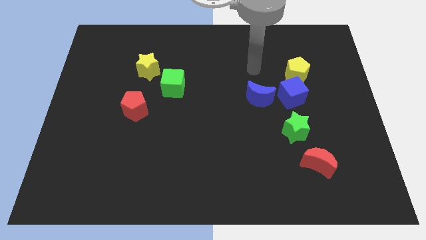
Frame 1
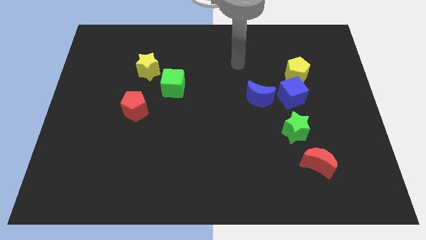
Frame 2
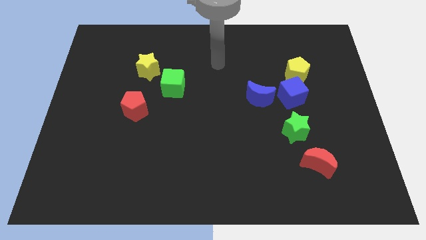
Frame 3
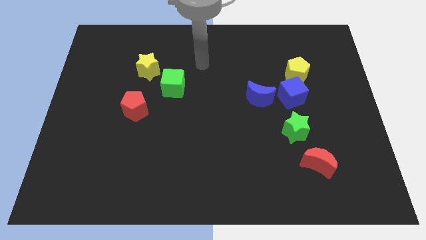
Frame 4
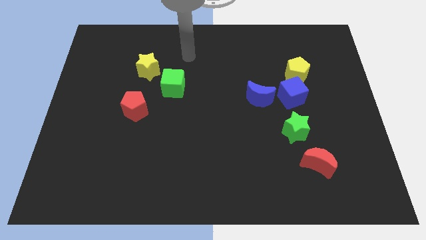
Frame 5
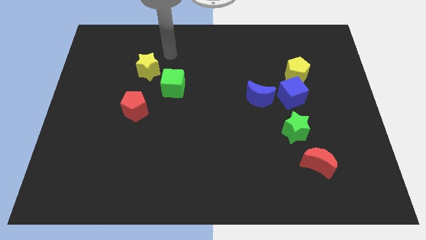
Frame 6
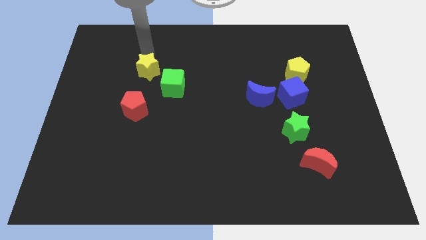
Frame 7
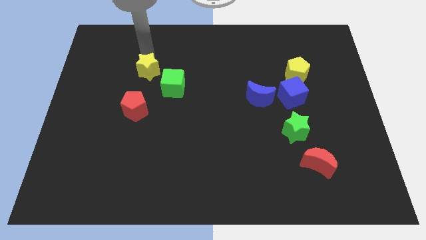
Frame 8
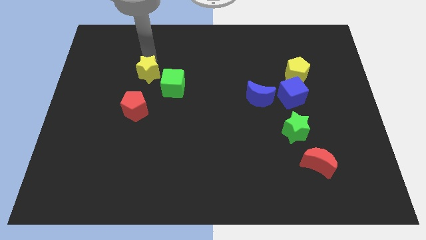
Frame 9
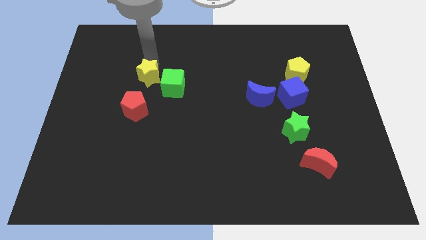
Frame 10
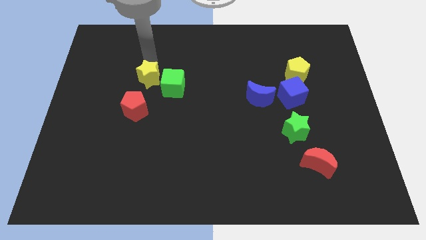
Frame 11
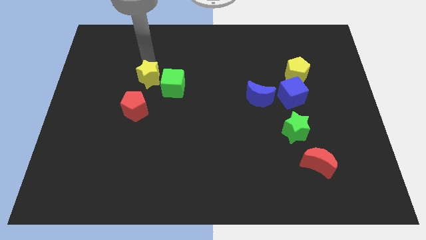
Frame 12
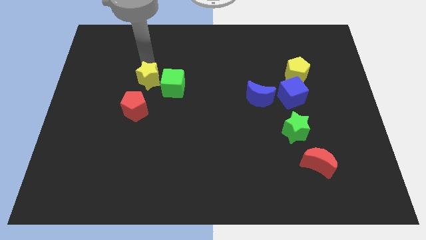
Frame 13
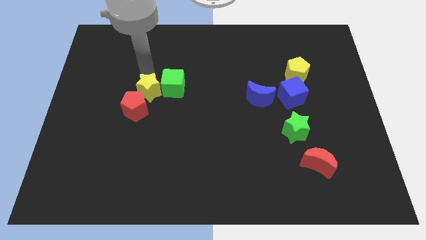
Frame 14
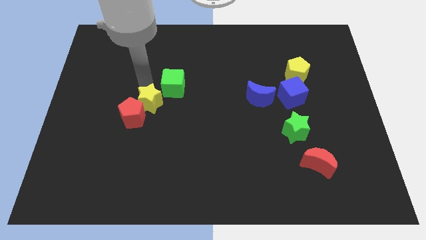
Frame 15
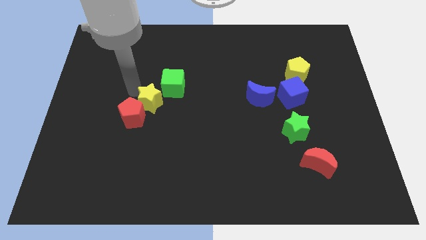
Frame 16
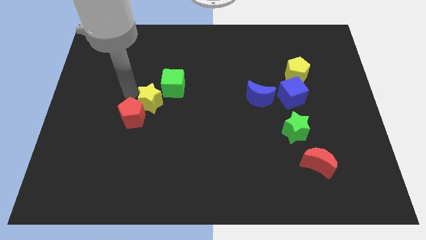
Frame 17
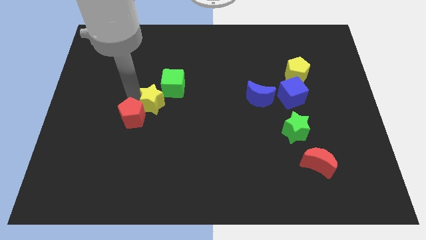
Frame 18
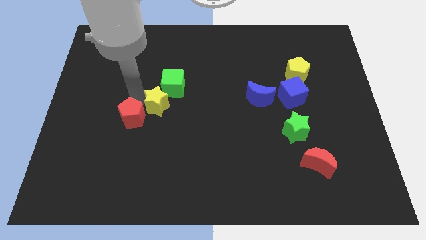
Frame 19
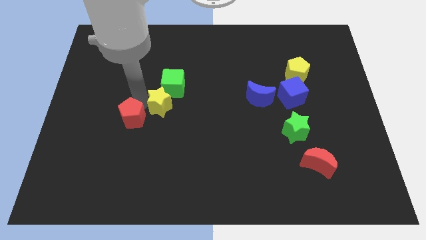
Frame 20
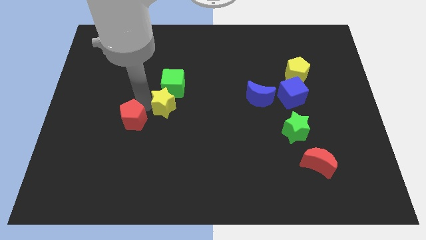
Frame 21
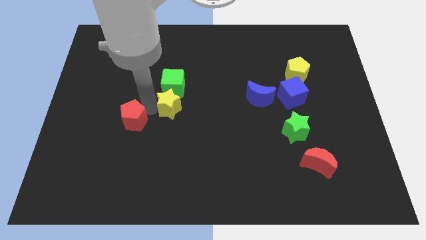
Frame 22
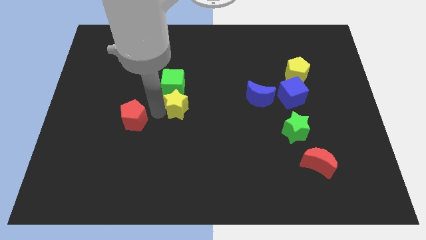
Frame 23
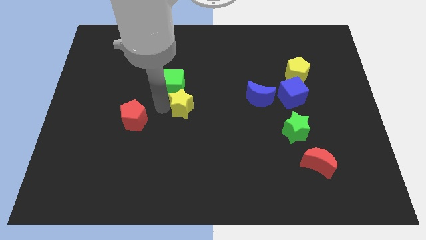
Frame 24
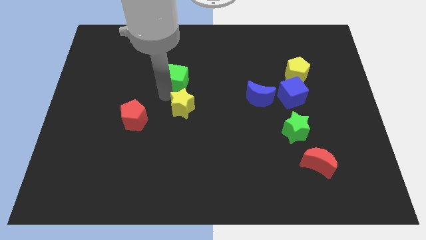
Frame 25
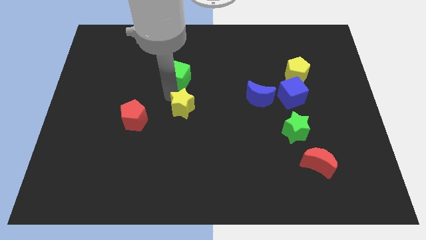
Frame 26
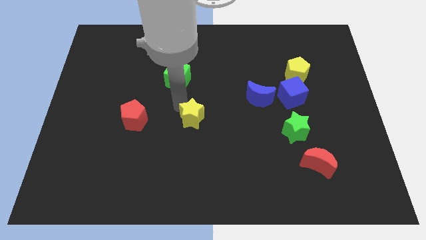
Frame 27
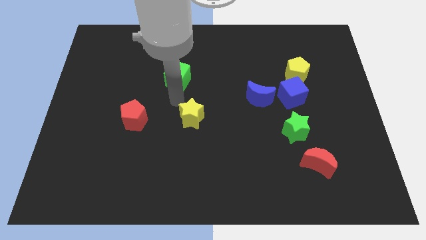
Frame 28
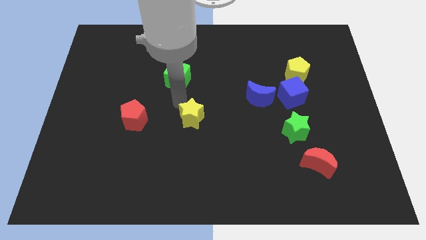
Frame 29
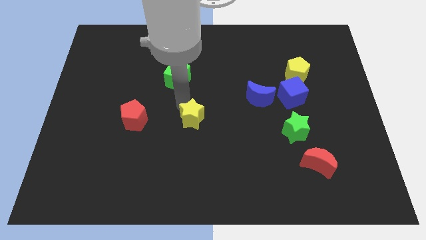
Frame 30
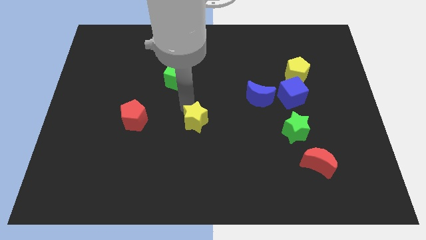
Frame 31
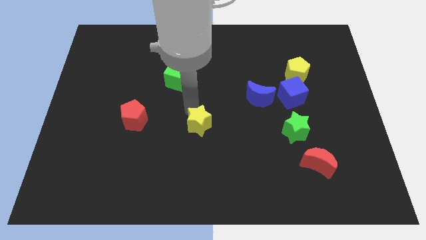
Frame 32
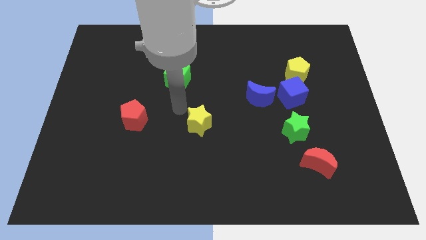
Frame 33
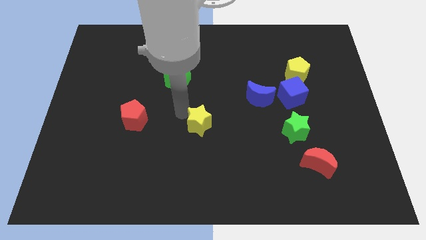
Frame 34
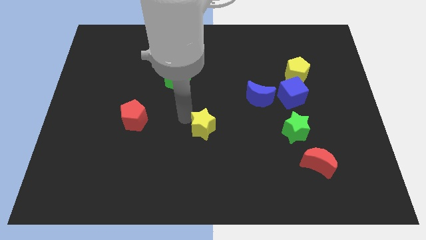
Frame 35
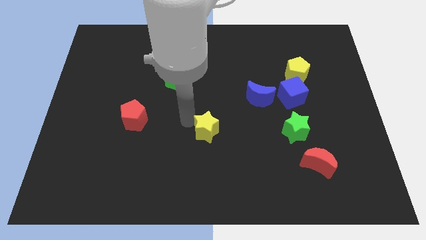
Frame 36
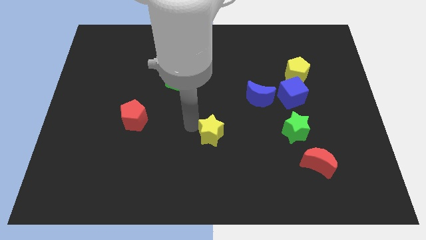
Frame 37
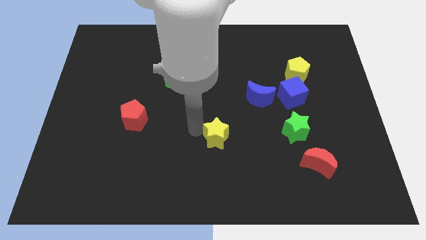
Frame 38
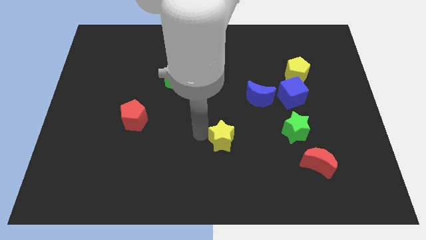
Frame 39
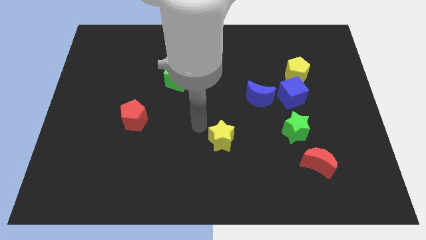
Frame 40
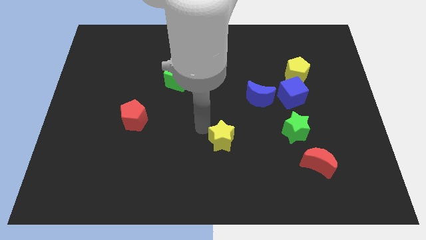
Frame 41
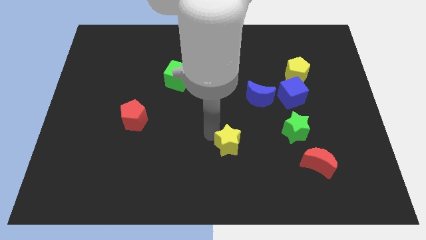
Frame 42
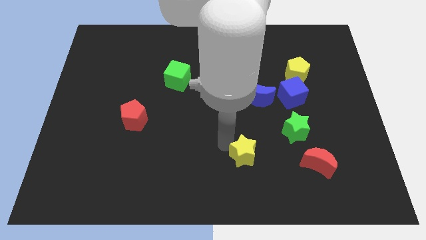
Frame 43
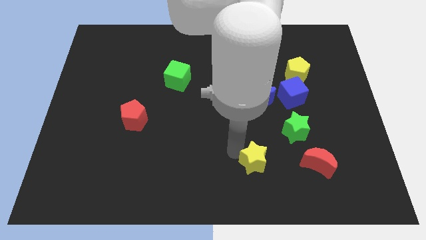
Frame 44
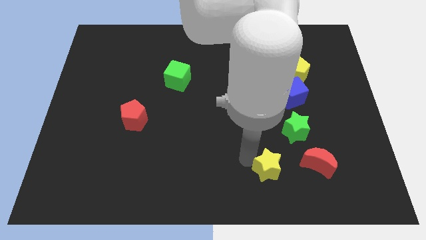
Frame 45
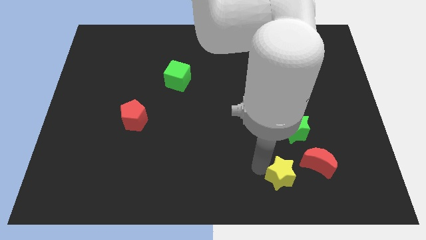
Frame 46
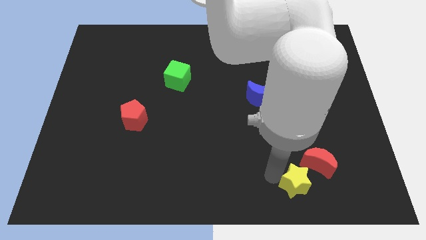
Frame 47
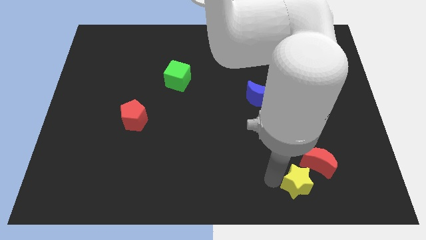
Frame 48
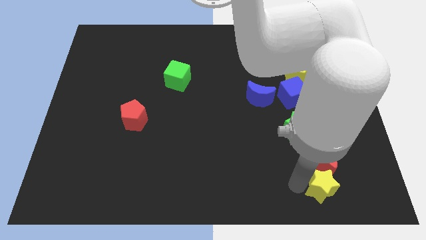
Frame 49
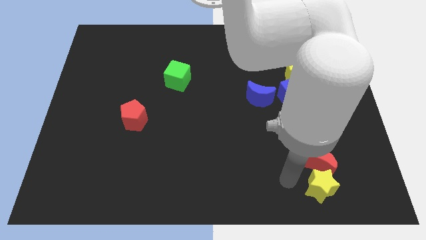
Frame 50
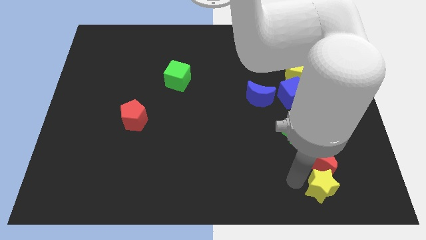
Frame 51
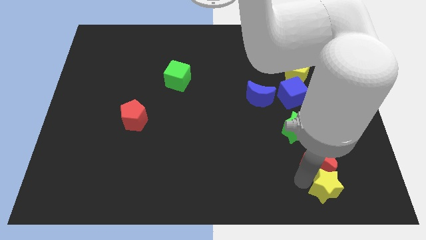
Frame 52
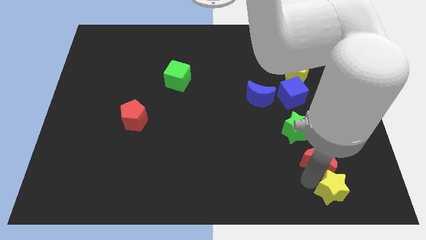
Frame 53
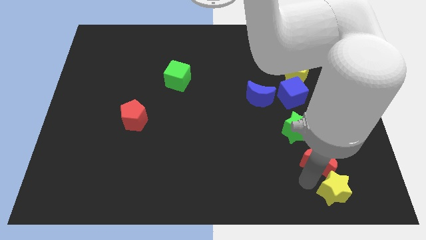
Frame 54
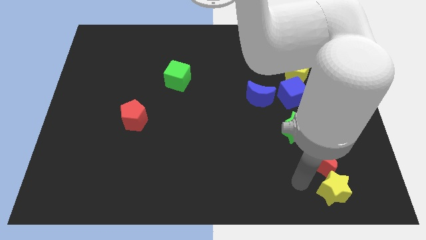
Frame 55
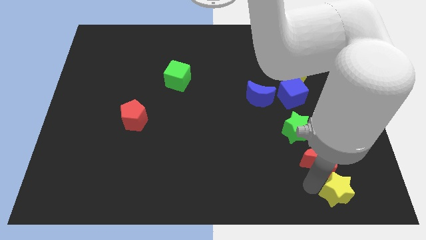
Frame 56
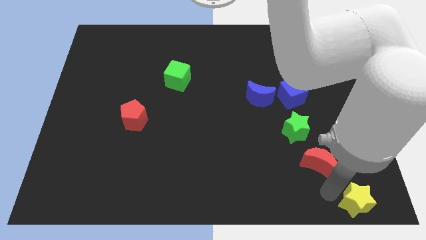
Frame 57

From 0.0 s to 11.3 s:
move the yellow star to the lower right corner

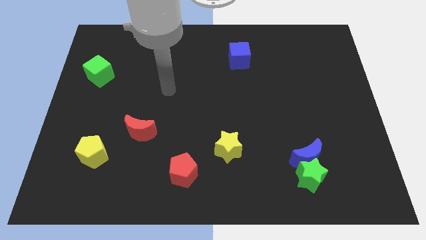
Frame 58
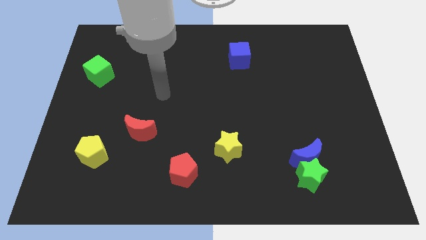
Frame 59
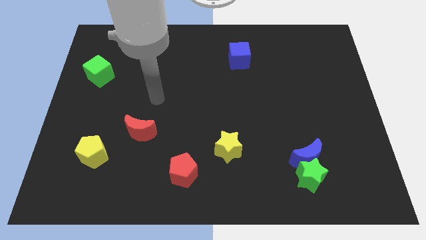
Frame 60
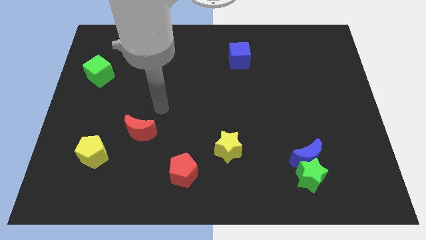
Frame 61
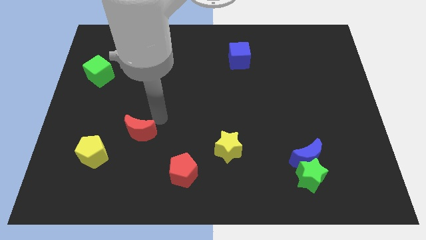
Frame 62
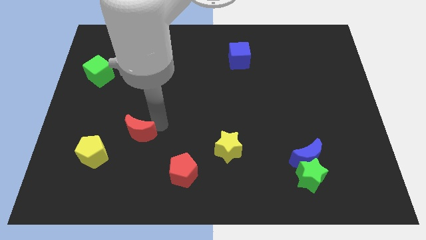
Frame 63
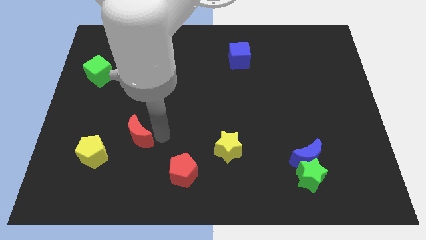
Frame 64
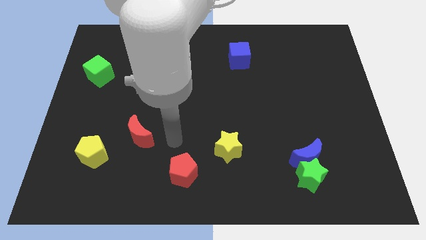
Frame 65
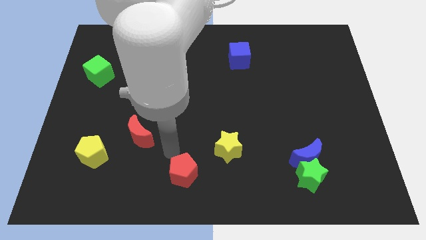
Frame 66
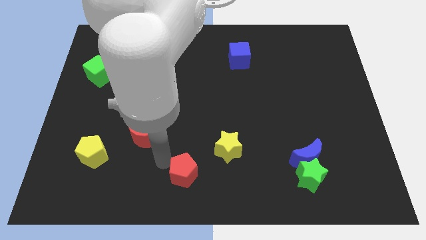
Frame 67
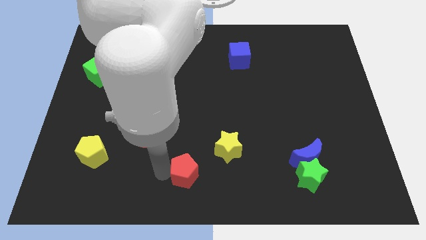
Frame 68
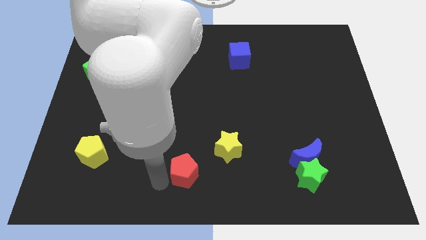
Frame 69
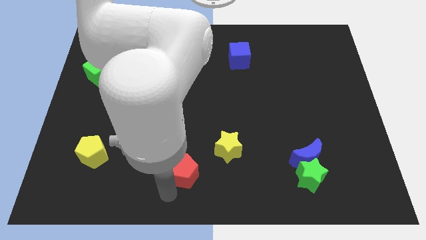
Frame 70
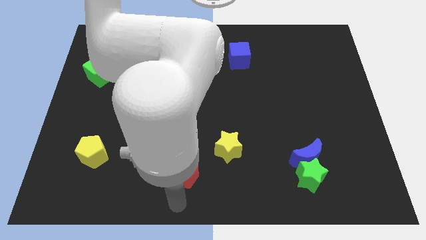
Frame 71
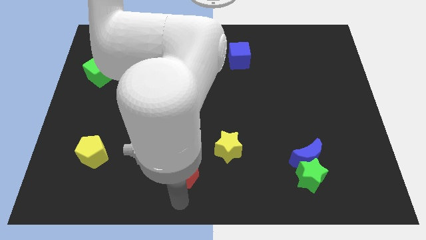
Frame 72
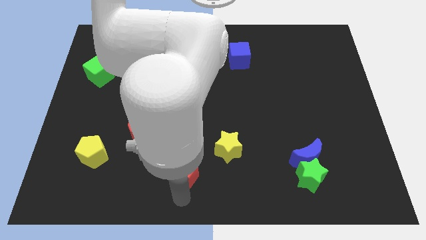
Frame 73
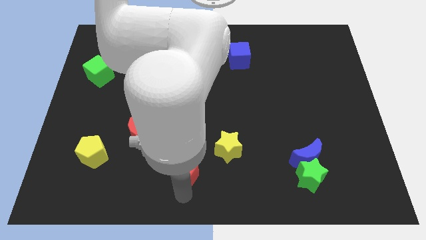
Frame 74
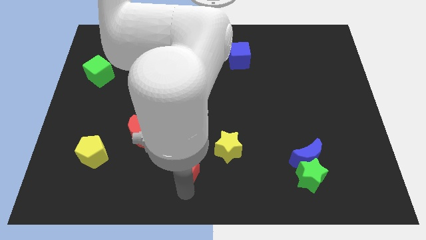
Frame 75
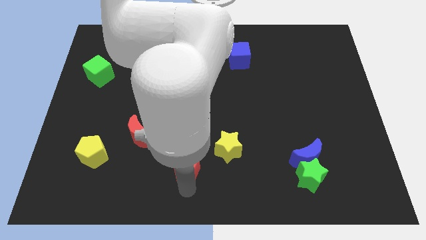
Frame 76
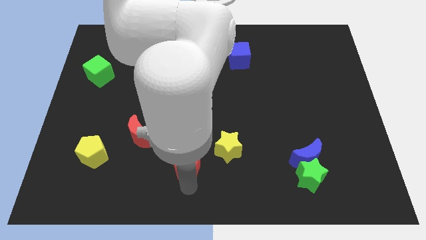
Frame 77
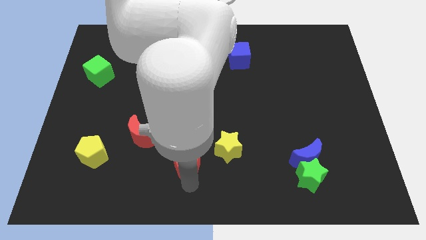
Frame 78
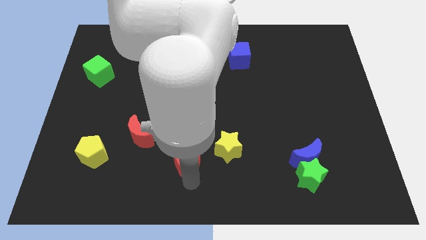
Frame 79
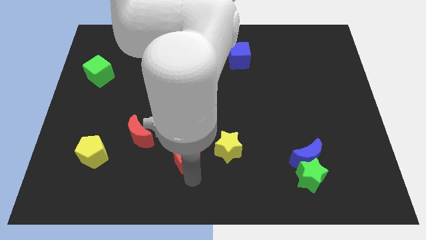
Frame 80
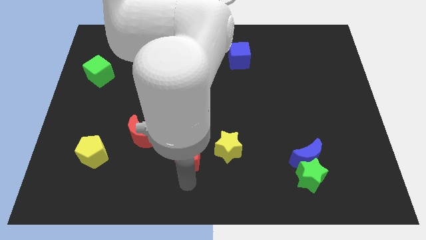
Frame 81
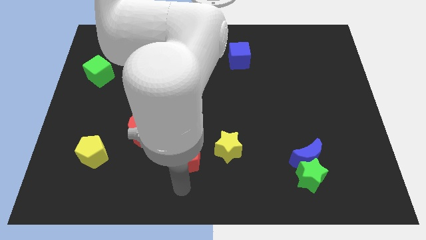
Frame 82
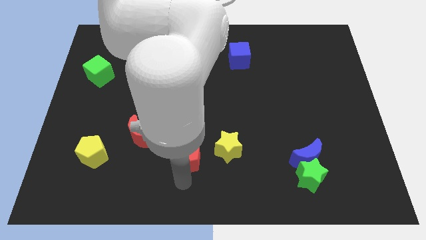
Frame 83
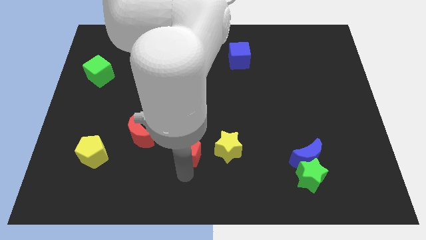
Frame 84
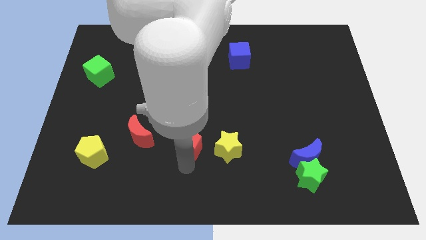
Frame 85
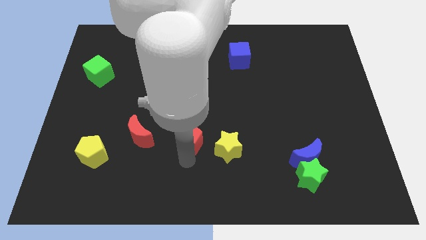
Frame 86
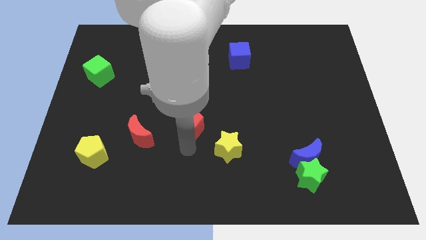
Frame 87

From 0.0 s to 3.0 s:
slide the red pentagon to the center
